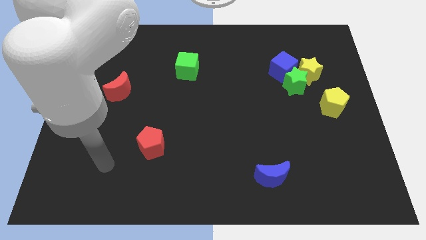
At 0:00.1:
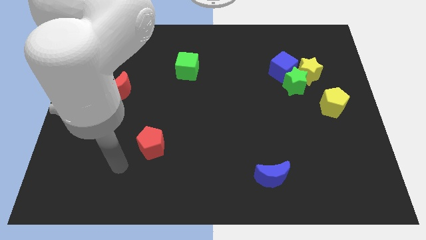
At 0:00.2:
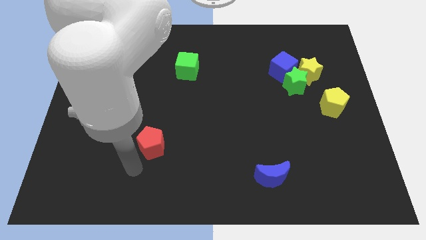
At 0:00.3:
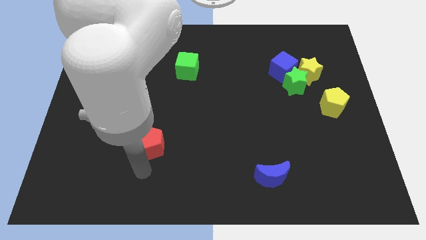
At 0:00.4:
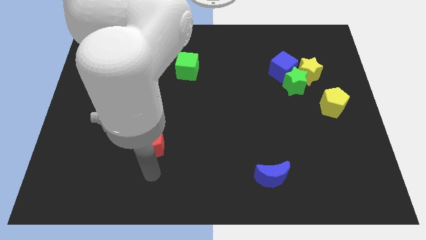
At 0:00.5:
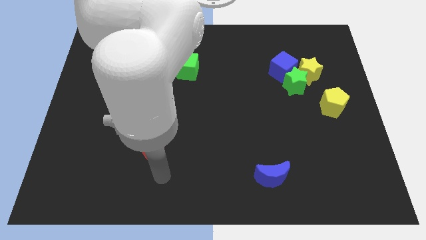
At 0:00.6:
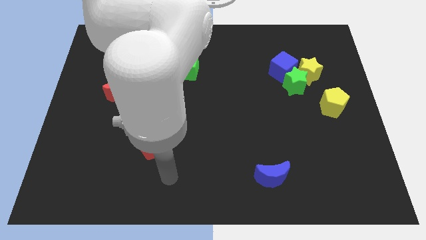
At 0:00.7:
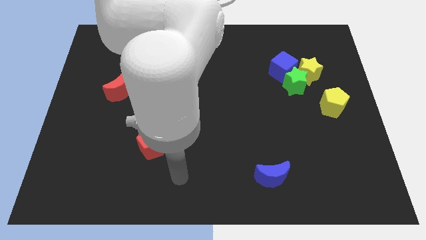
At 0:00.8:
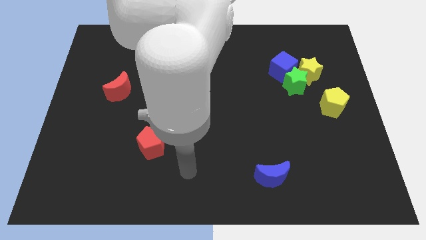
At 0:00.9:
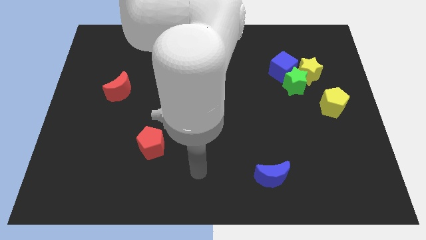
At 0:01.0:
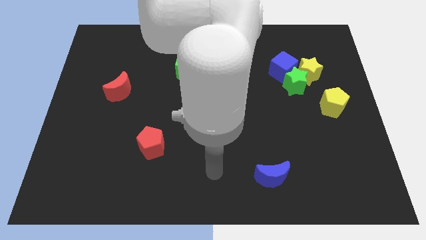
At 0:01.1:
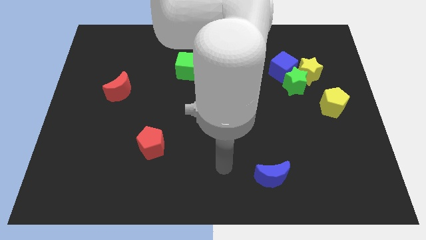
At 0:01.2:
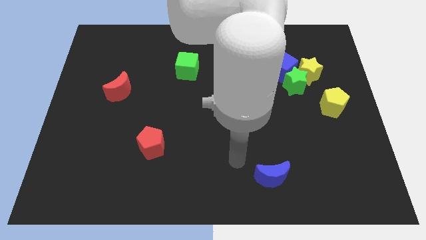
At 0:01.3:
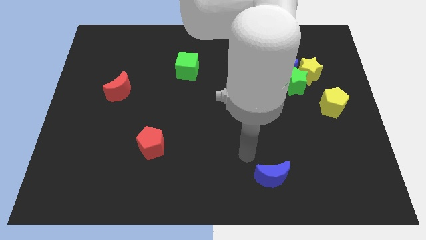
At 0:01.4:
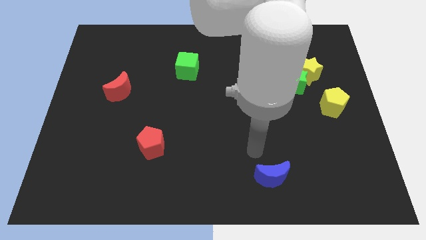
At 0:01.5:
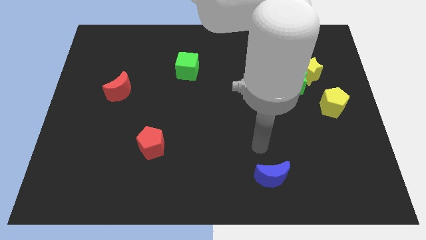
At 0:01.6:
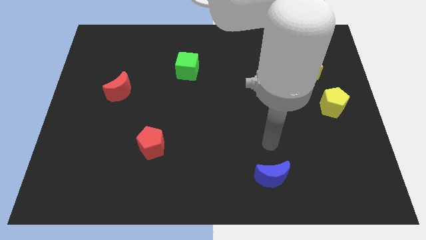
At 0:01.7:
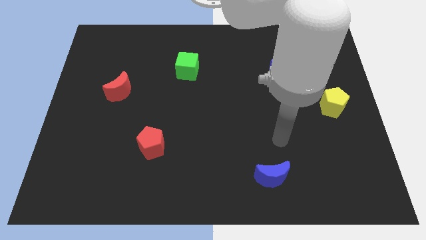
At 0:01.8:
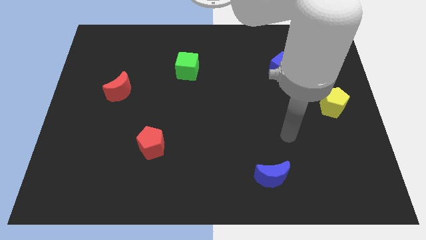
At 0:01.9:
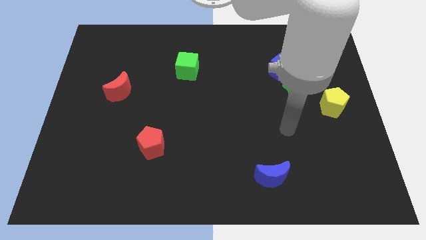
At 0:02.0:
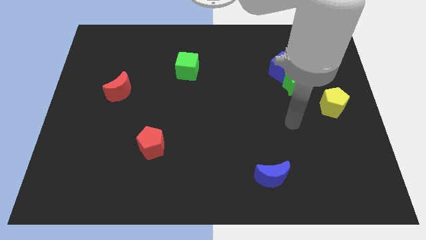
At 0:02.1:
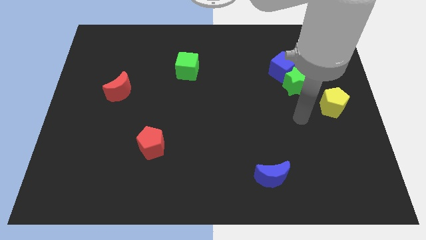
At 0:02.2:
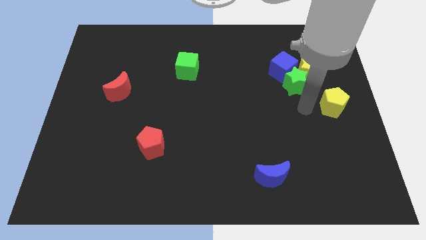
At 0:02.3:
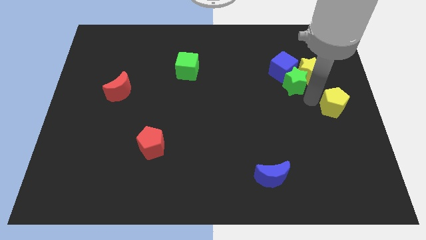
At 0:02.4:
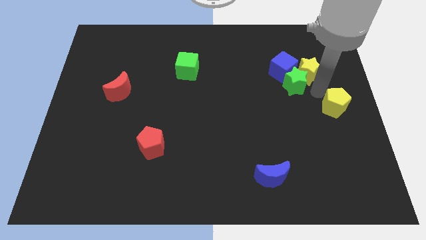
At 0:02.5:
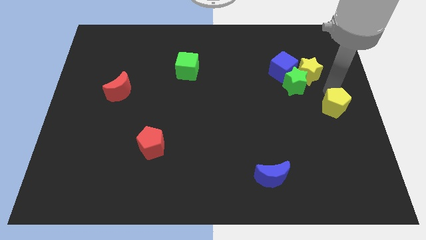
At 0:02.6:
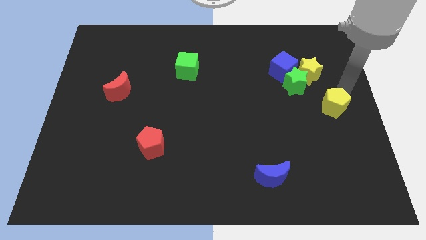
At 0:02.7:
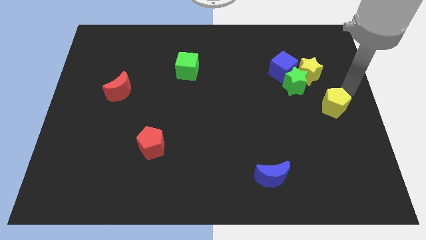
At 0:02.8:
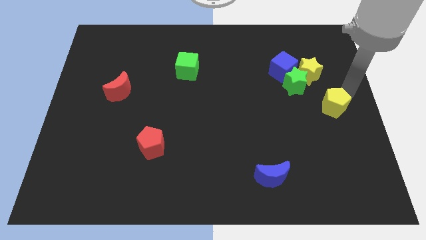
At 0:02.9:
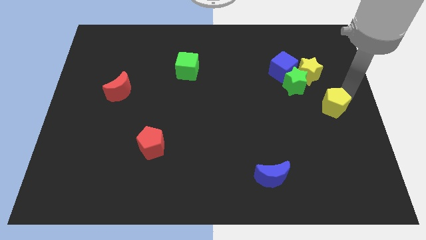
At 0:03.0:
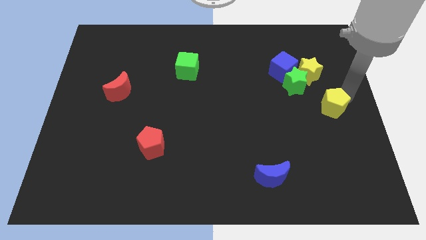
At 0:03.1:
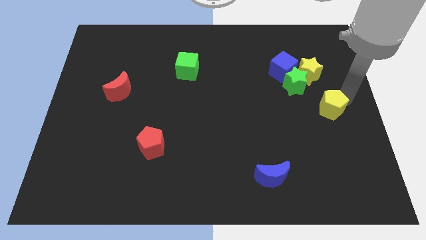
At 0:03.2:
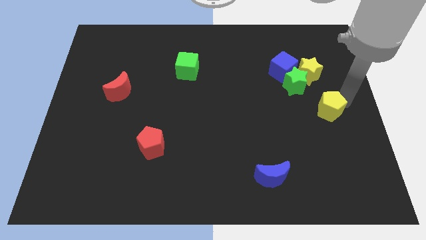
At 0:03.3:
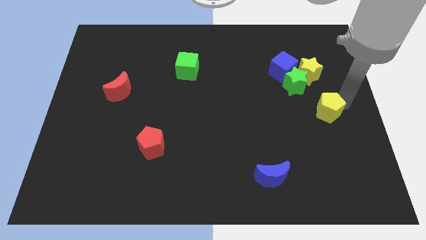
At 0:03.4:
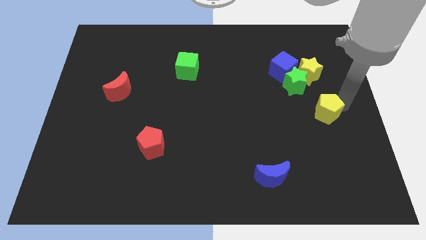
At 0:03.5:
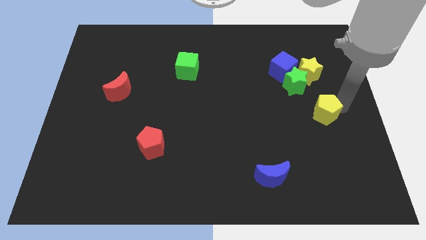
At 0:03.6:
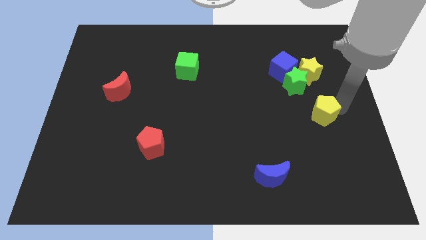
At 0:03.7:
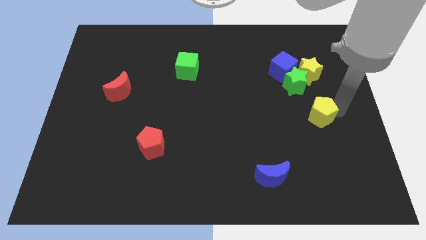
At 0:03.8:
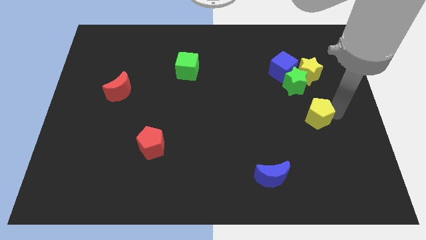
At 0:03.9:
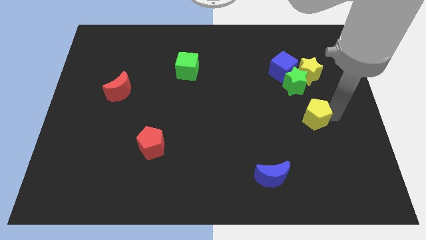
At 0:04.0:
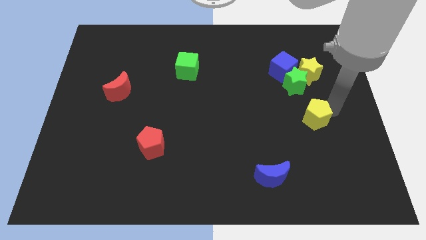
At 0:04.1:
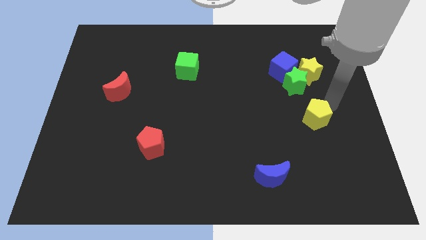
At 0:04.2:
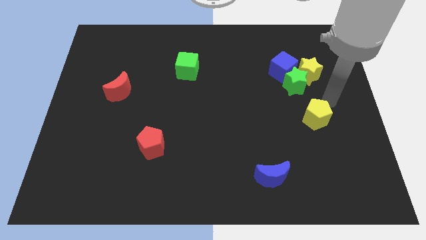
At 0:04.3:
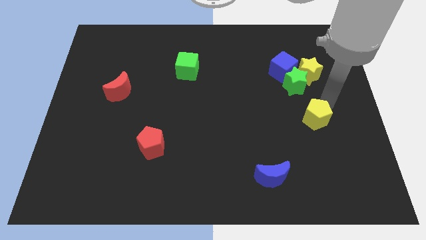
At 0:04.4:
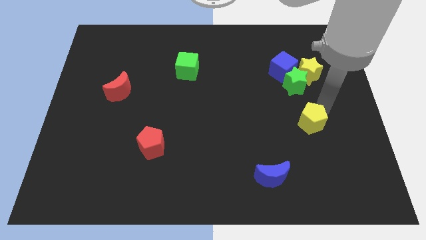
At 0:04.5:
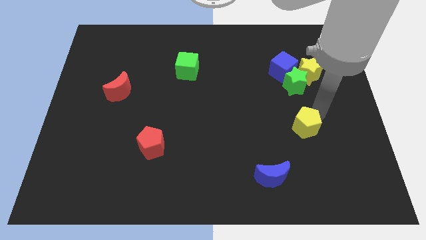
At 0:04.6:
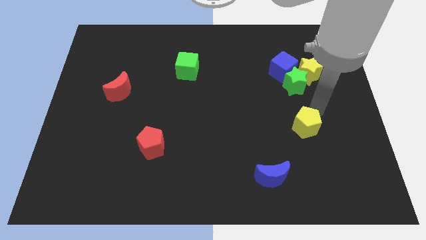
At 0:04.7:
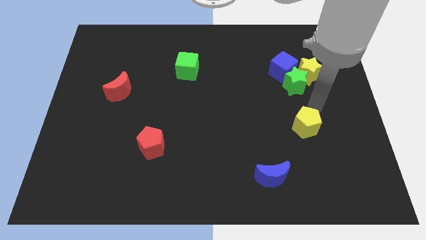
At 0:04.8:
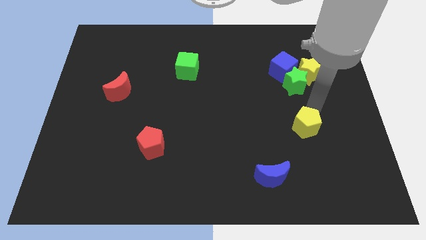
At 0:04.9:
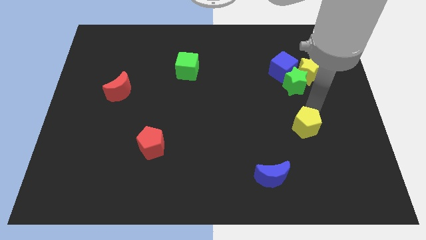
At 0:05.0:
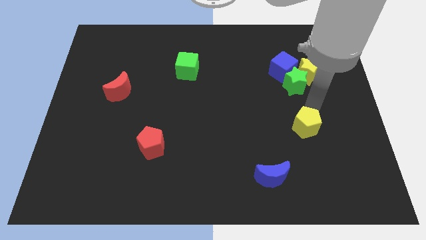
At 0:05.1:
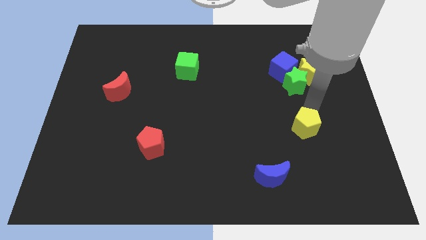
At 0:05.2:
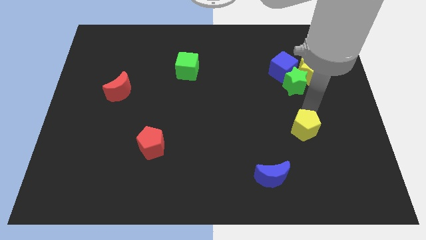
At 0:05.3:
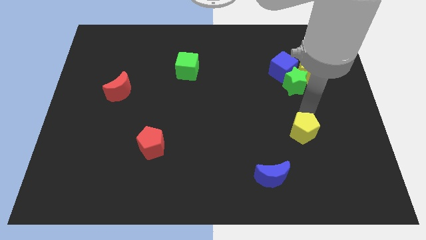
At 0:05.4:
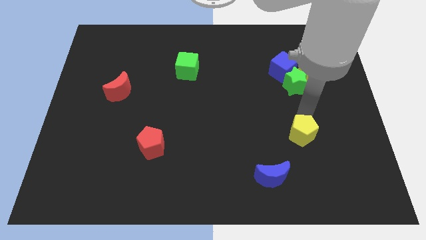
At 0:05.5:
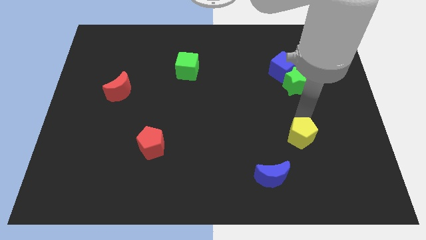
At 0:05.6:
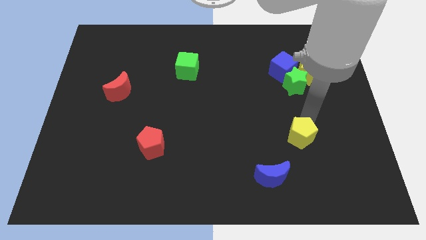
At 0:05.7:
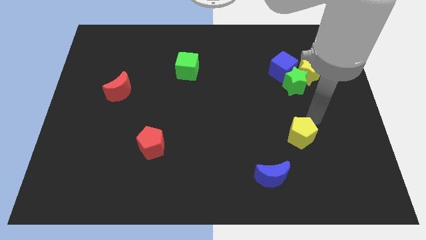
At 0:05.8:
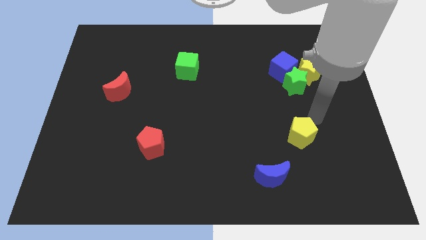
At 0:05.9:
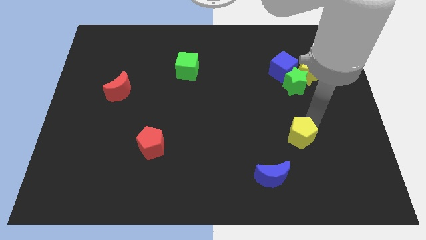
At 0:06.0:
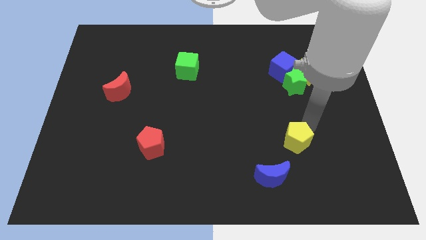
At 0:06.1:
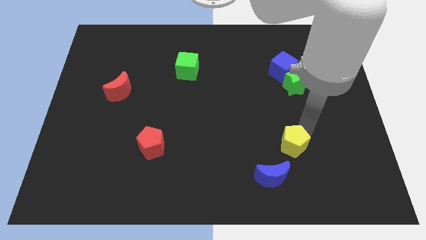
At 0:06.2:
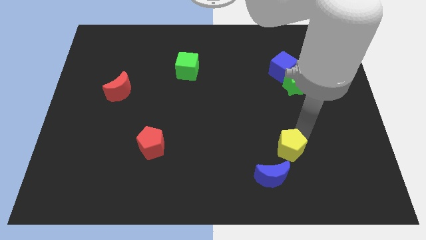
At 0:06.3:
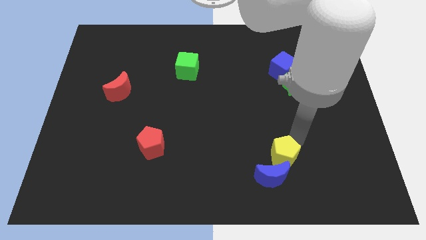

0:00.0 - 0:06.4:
move the yellow pentagon next to the blue moon
